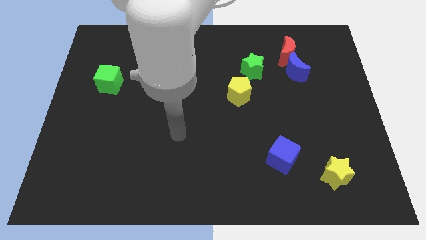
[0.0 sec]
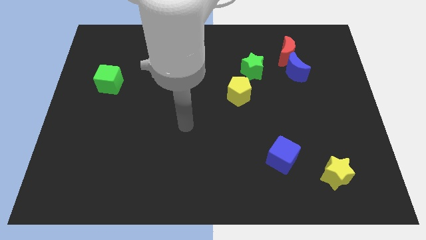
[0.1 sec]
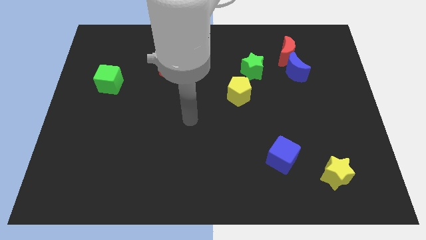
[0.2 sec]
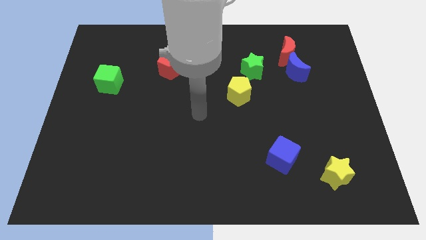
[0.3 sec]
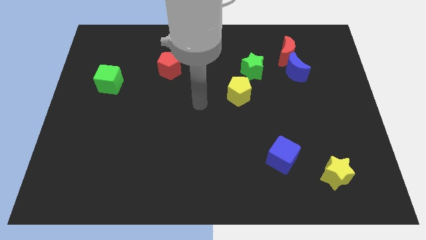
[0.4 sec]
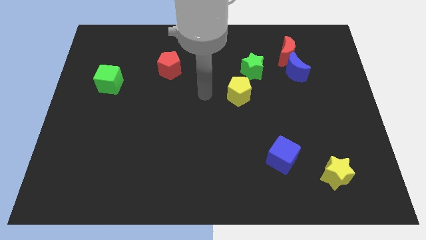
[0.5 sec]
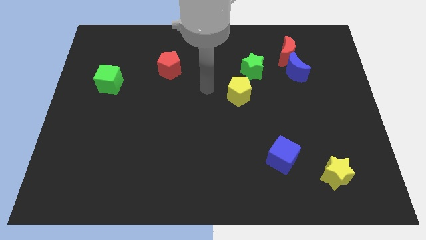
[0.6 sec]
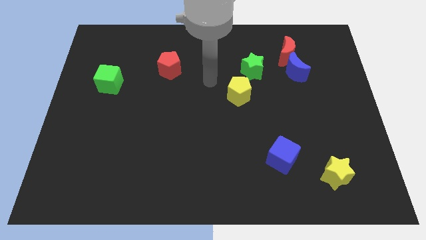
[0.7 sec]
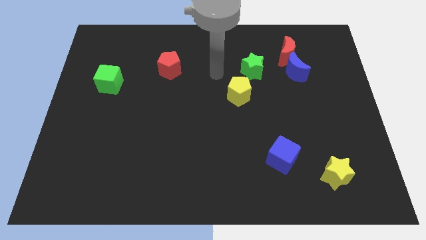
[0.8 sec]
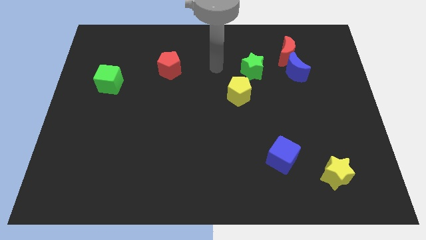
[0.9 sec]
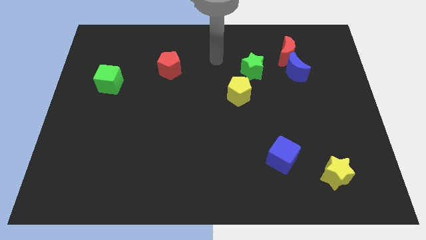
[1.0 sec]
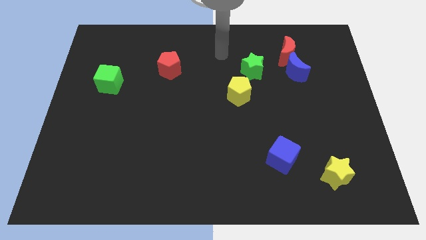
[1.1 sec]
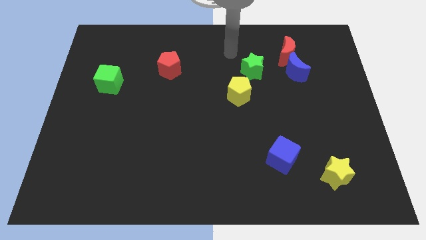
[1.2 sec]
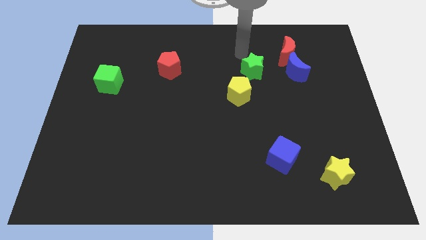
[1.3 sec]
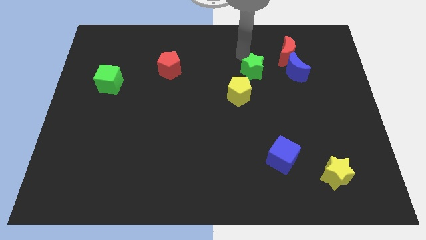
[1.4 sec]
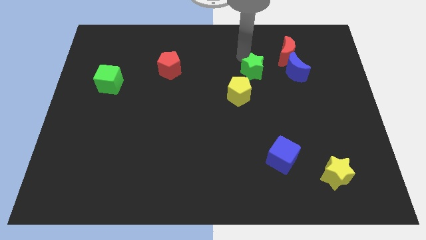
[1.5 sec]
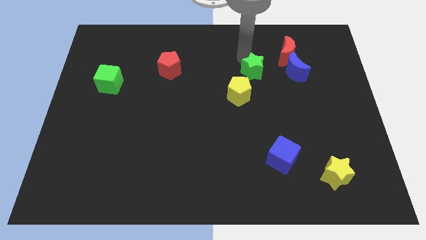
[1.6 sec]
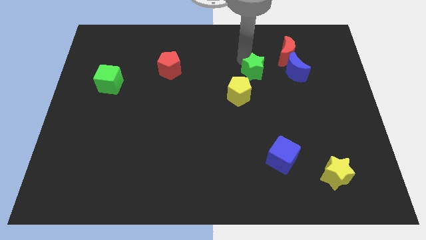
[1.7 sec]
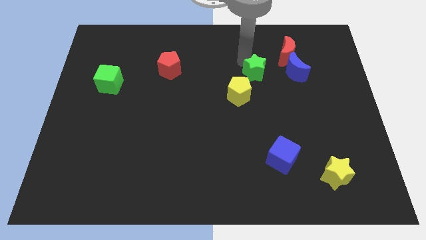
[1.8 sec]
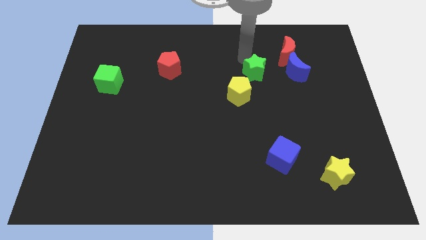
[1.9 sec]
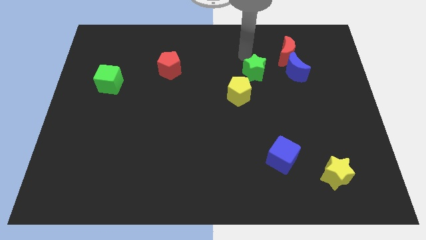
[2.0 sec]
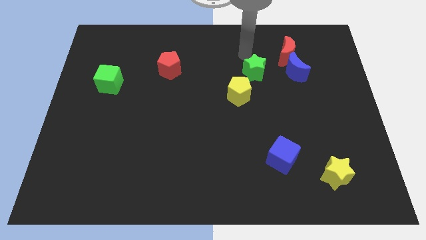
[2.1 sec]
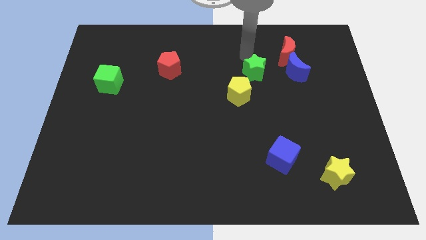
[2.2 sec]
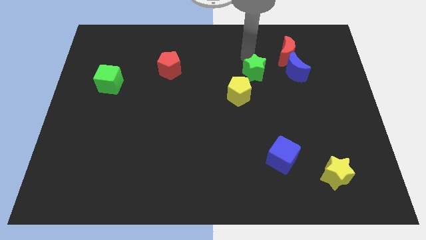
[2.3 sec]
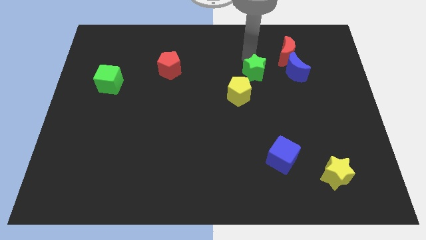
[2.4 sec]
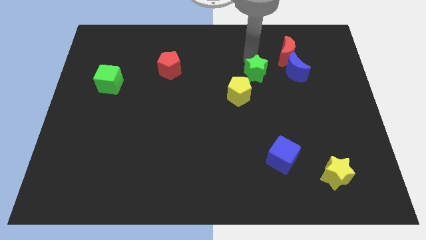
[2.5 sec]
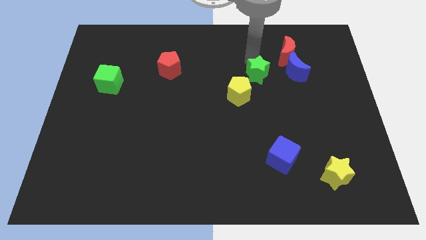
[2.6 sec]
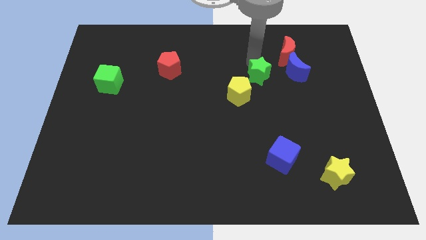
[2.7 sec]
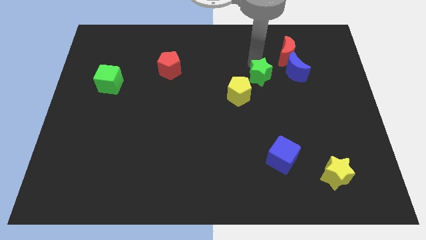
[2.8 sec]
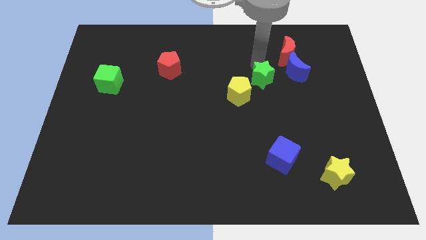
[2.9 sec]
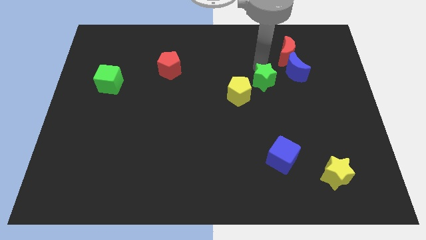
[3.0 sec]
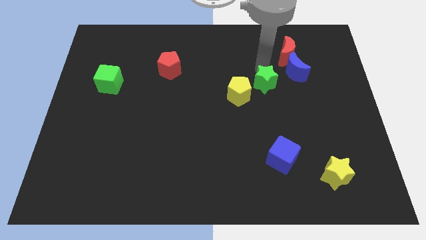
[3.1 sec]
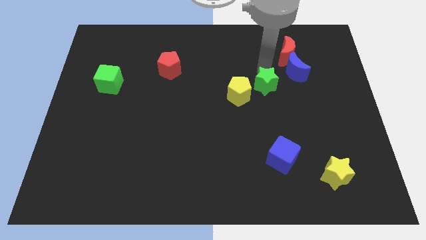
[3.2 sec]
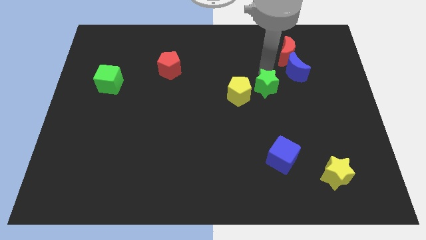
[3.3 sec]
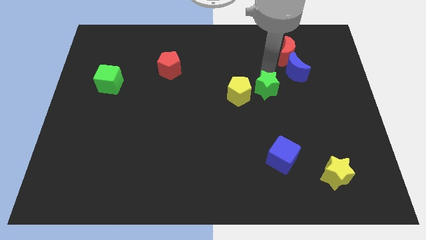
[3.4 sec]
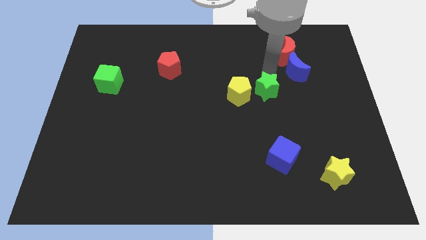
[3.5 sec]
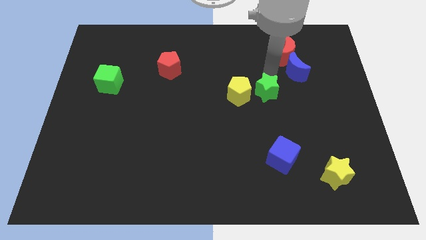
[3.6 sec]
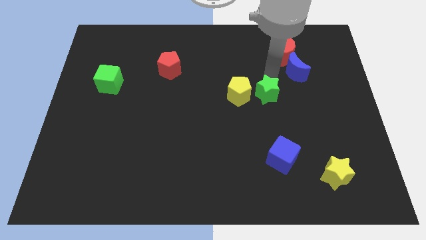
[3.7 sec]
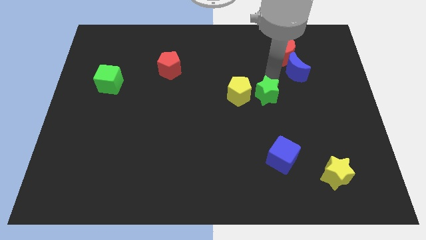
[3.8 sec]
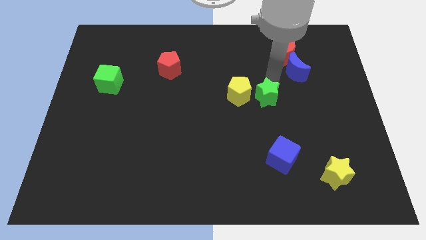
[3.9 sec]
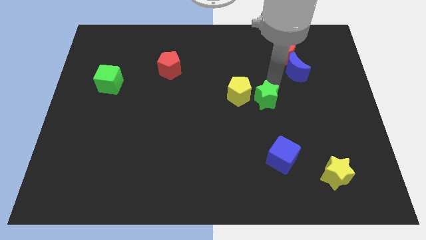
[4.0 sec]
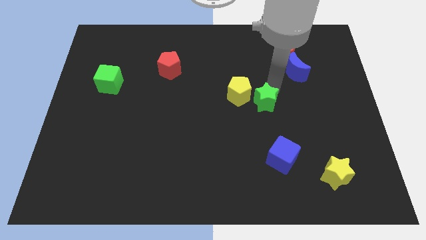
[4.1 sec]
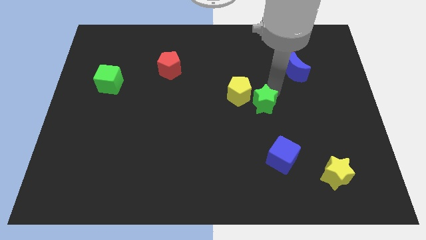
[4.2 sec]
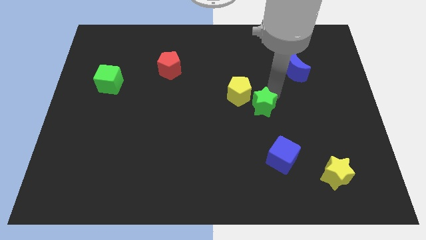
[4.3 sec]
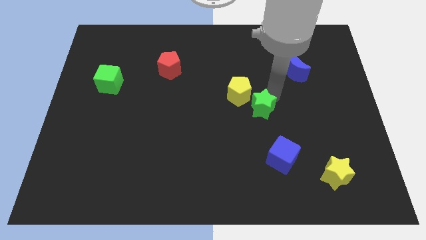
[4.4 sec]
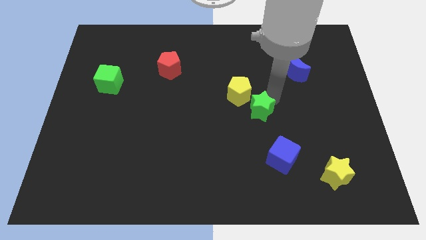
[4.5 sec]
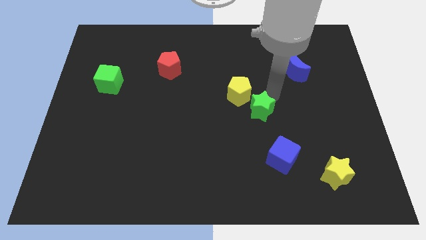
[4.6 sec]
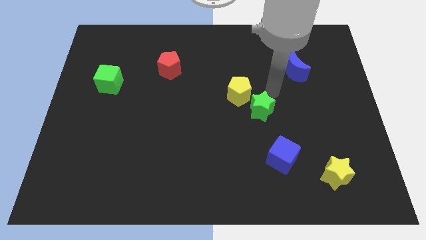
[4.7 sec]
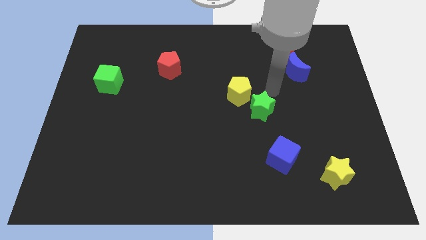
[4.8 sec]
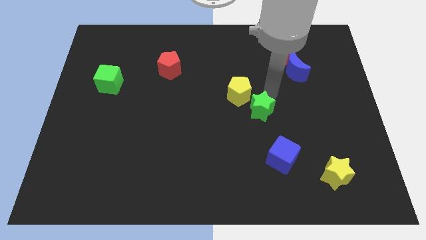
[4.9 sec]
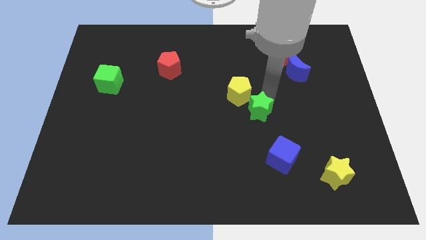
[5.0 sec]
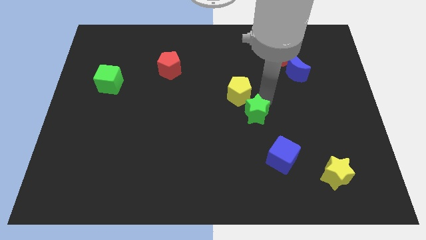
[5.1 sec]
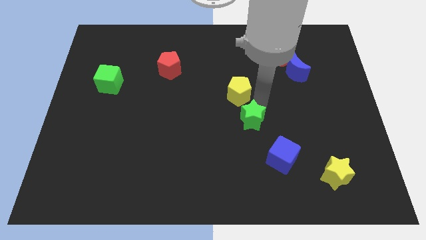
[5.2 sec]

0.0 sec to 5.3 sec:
push the green star diagonally up and to the left of the blue cube

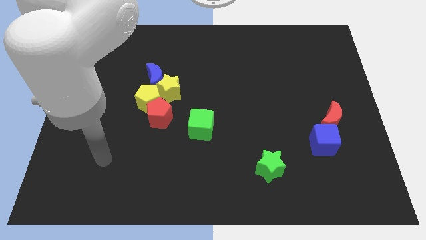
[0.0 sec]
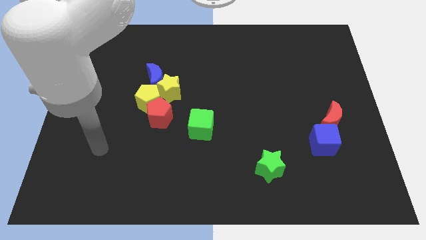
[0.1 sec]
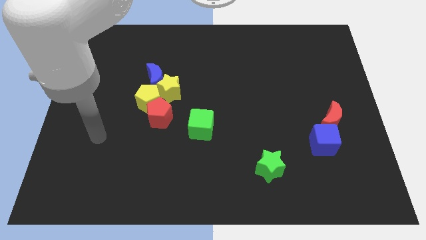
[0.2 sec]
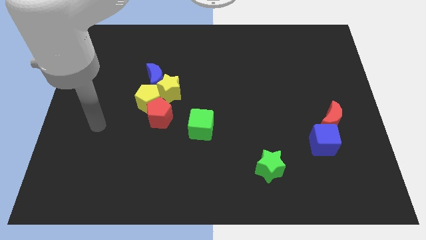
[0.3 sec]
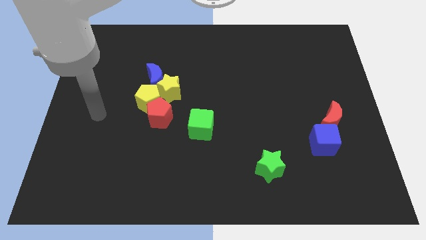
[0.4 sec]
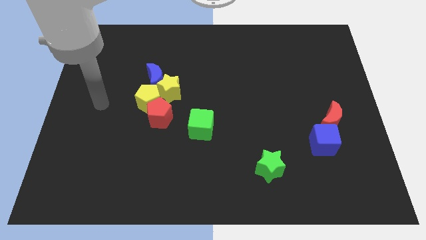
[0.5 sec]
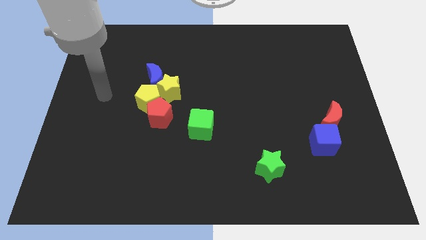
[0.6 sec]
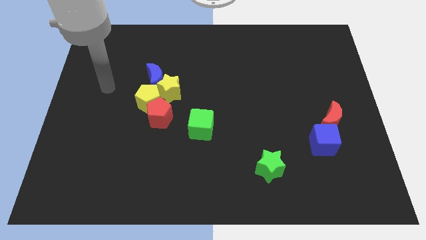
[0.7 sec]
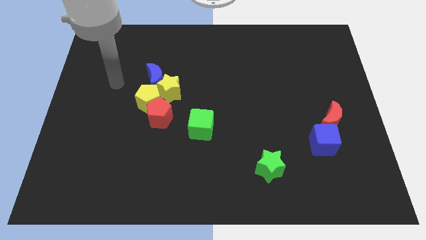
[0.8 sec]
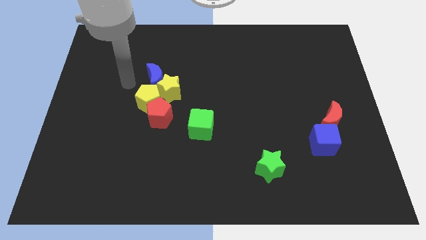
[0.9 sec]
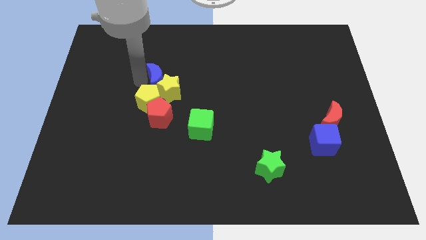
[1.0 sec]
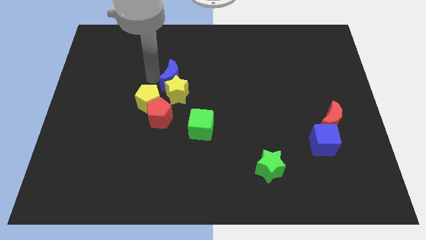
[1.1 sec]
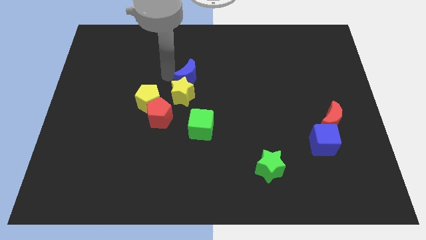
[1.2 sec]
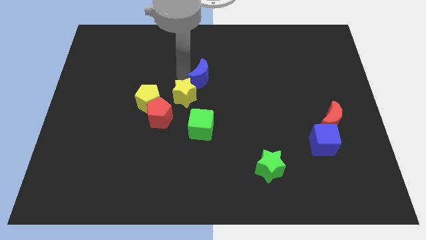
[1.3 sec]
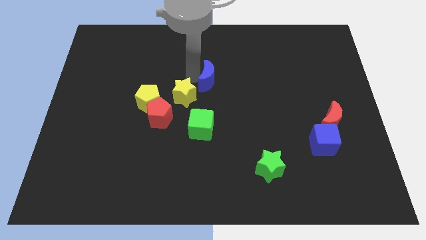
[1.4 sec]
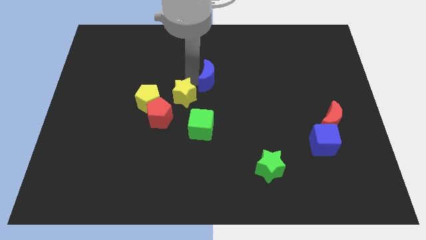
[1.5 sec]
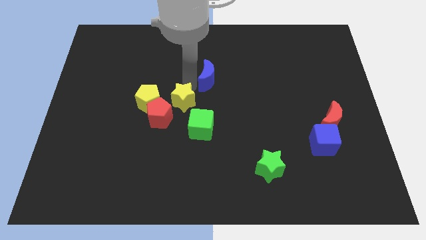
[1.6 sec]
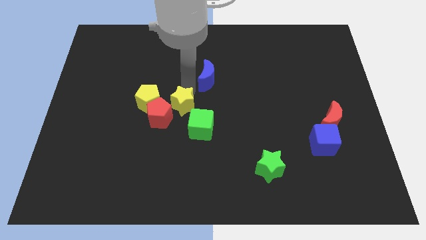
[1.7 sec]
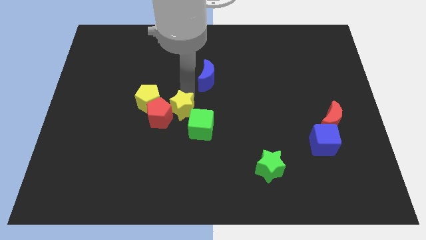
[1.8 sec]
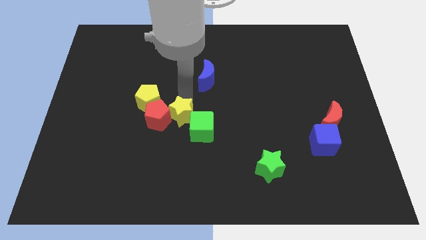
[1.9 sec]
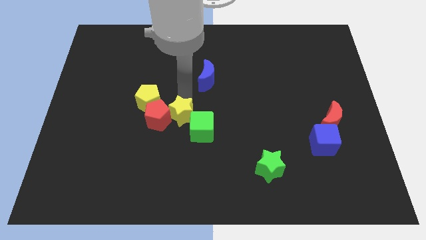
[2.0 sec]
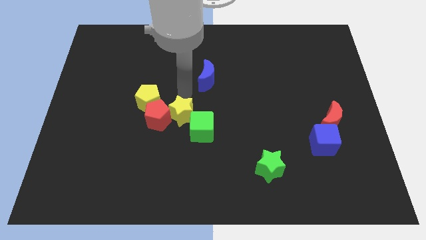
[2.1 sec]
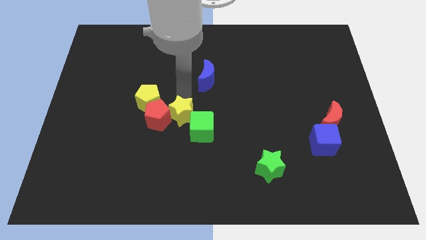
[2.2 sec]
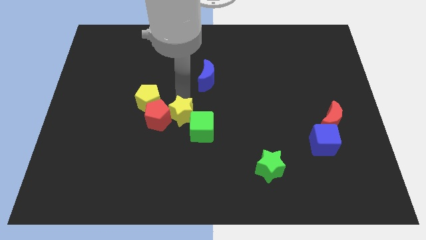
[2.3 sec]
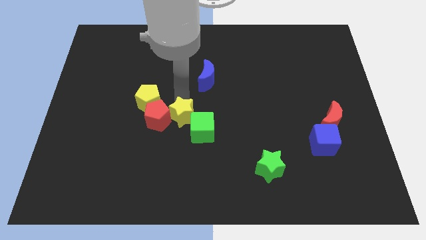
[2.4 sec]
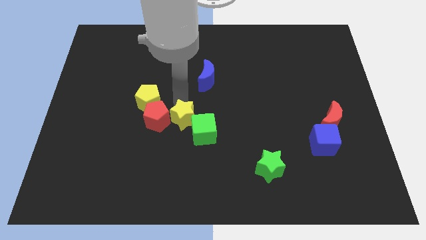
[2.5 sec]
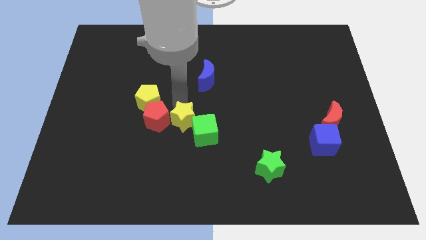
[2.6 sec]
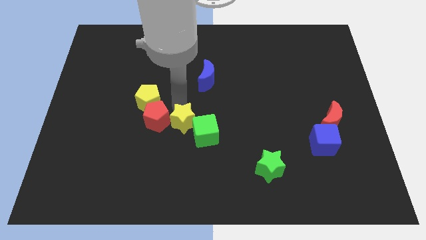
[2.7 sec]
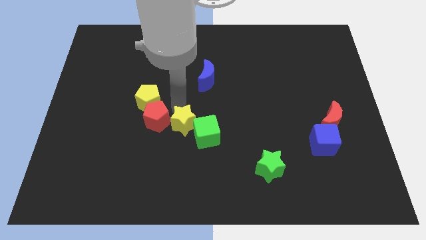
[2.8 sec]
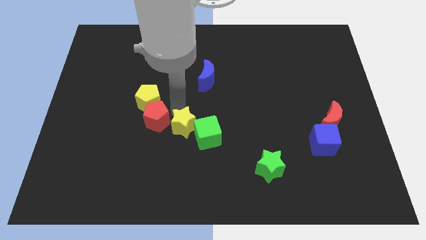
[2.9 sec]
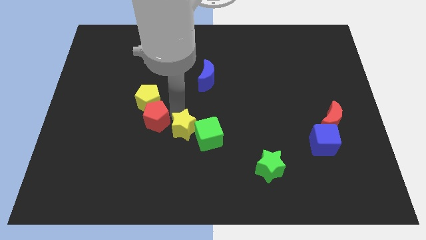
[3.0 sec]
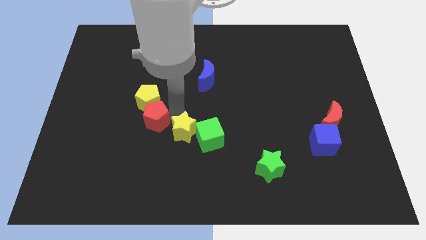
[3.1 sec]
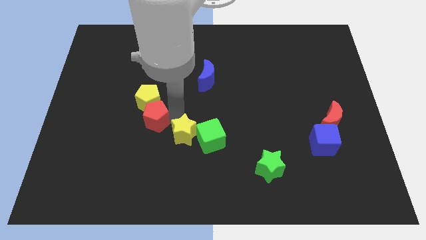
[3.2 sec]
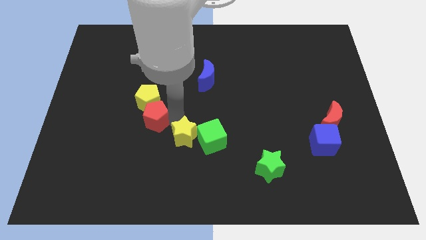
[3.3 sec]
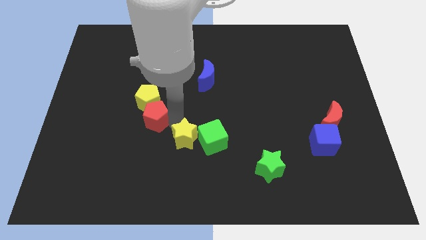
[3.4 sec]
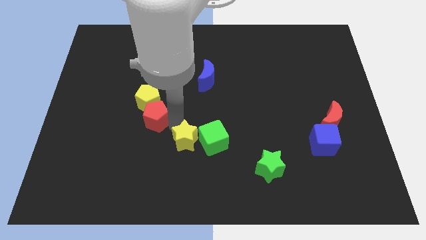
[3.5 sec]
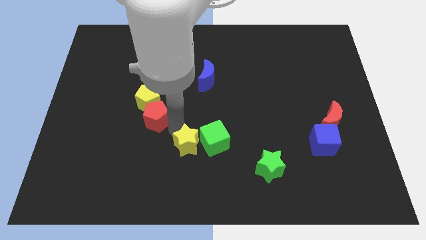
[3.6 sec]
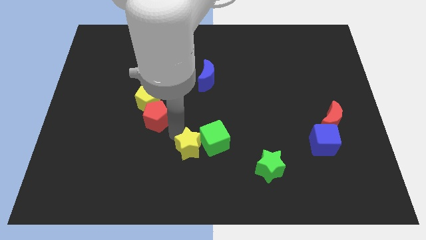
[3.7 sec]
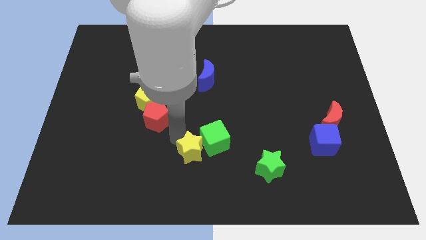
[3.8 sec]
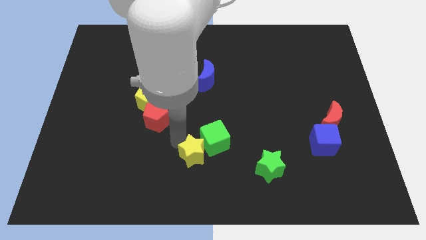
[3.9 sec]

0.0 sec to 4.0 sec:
slide the yellow star to the bottom of the green cube
